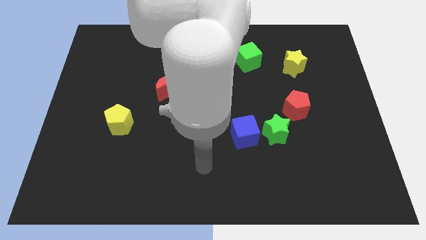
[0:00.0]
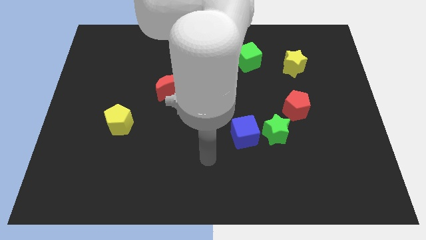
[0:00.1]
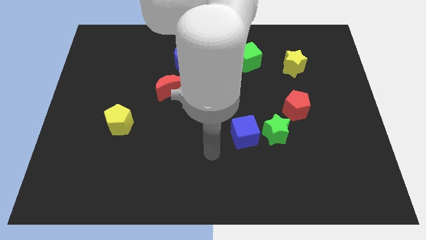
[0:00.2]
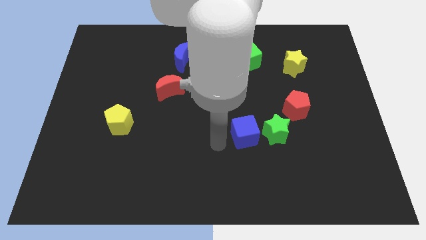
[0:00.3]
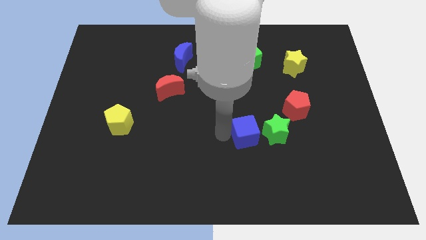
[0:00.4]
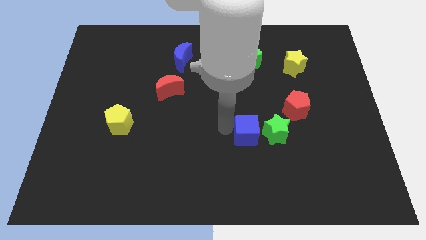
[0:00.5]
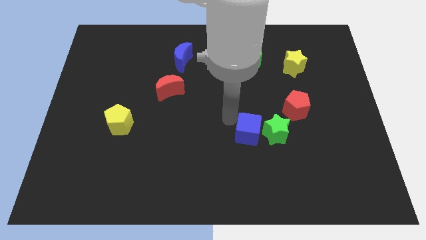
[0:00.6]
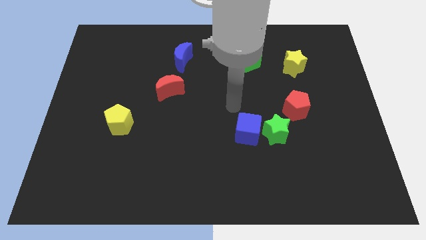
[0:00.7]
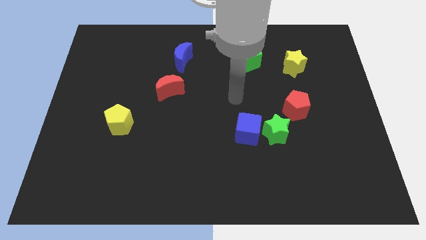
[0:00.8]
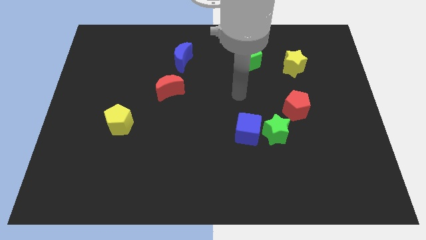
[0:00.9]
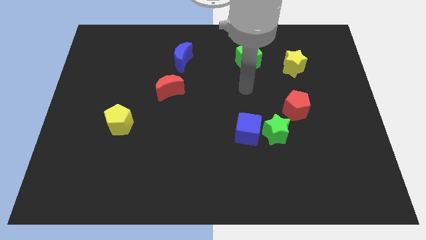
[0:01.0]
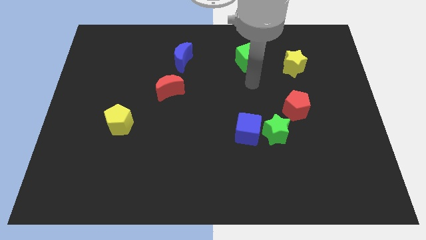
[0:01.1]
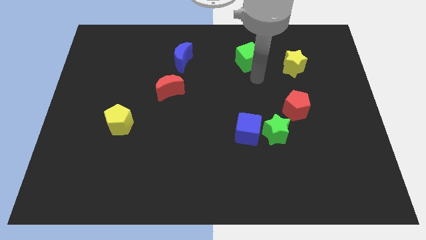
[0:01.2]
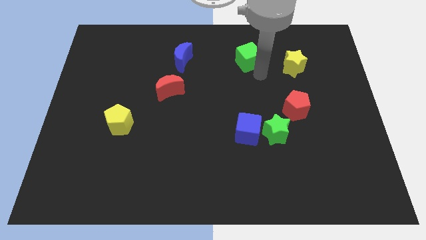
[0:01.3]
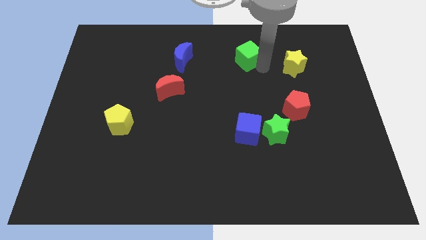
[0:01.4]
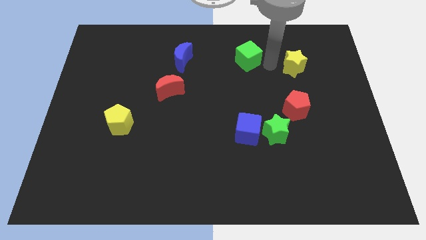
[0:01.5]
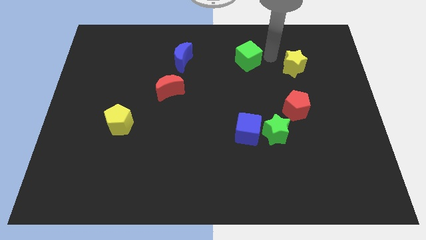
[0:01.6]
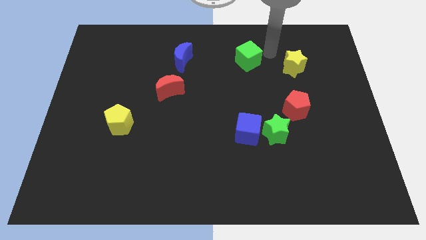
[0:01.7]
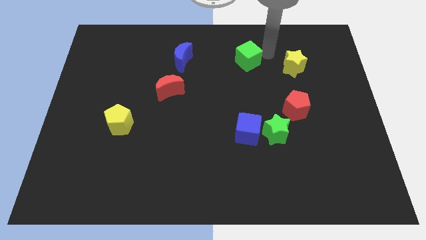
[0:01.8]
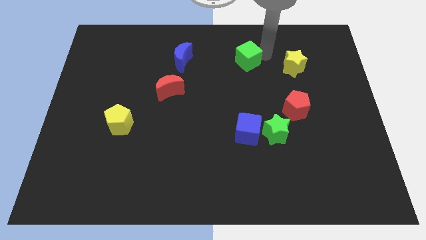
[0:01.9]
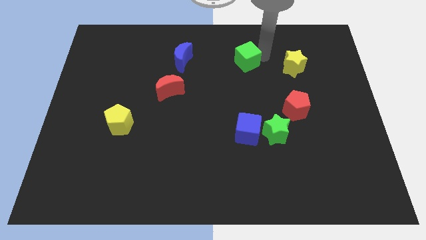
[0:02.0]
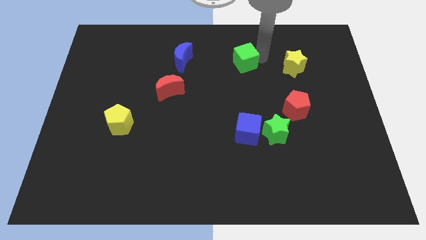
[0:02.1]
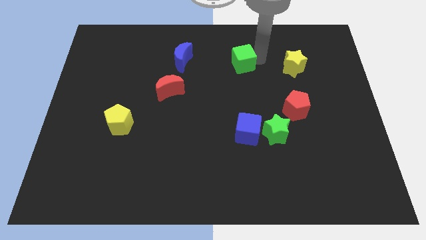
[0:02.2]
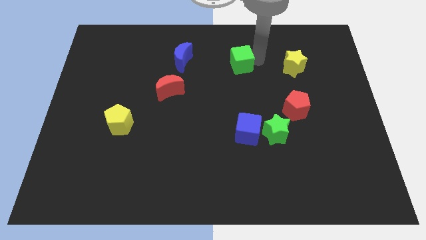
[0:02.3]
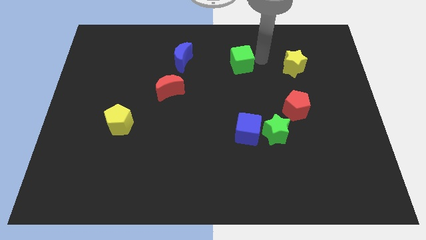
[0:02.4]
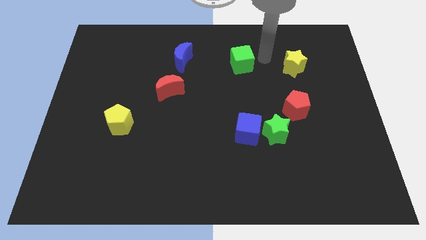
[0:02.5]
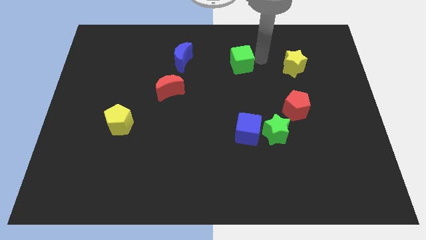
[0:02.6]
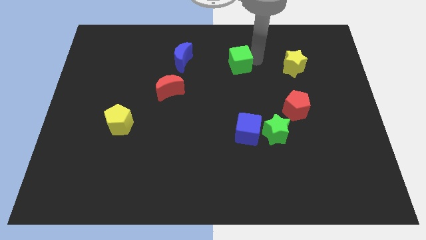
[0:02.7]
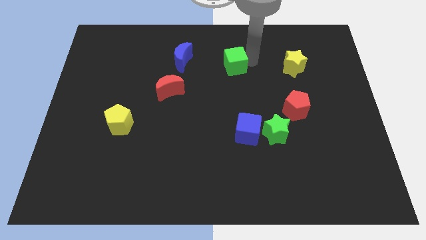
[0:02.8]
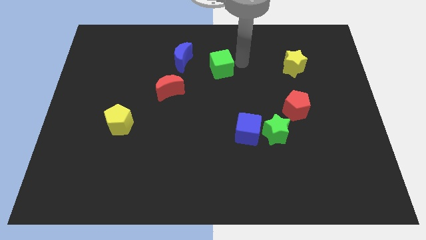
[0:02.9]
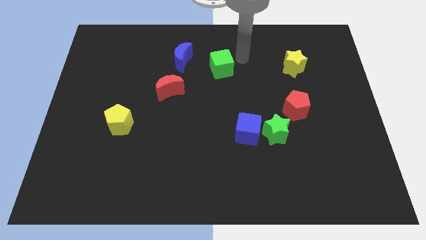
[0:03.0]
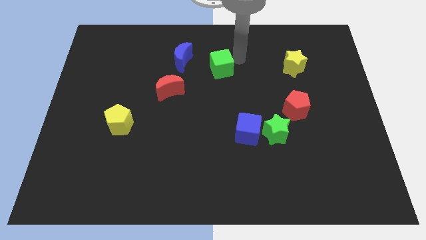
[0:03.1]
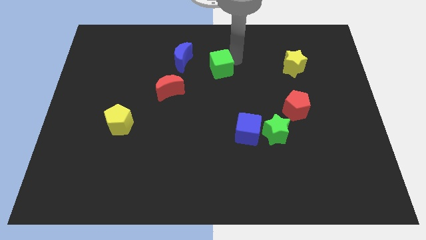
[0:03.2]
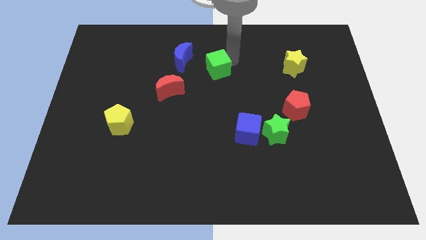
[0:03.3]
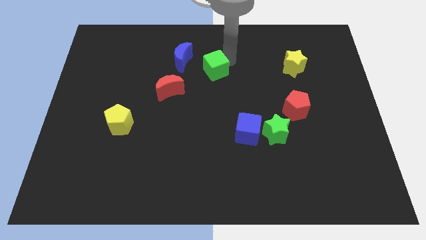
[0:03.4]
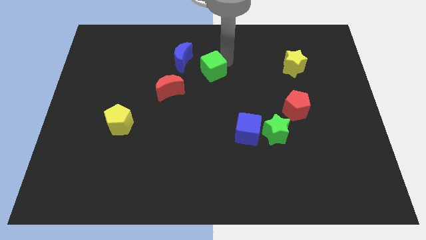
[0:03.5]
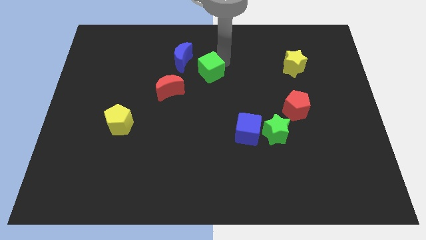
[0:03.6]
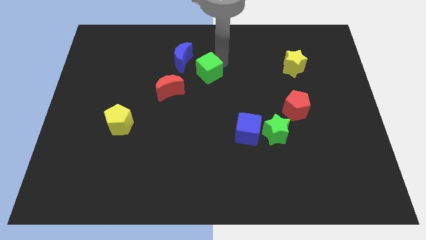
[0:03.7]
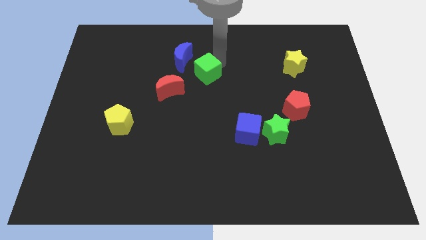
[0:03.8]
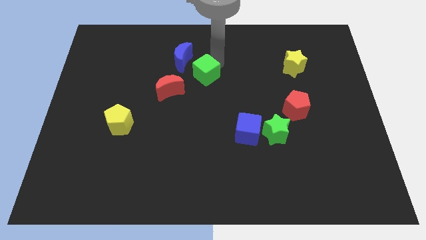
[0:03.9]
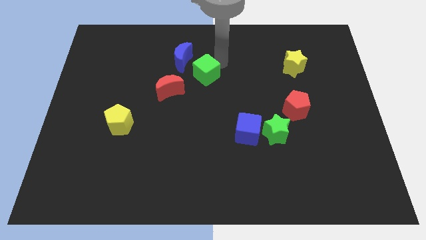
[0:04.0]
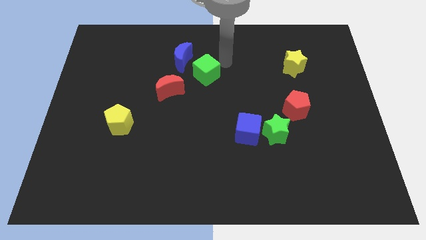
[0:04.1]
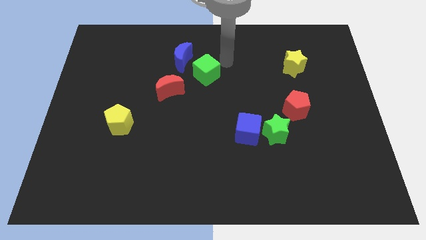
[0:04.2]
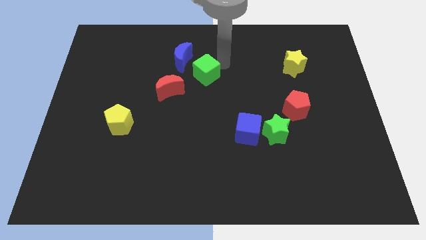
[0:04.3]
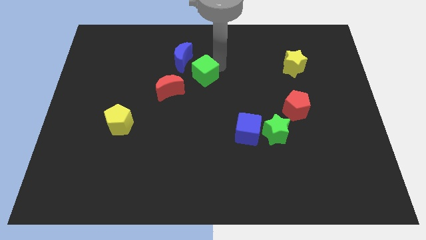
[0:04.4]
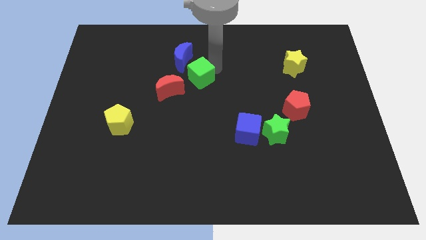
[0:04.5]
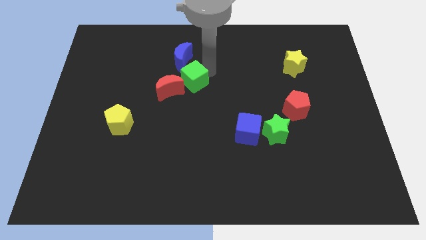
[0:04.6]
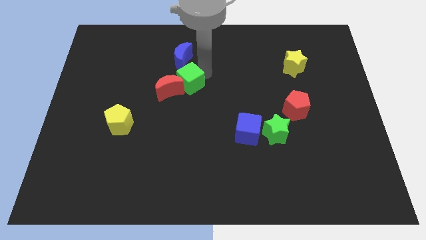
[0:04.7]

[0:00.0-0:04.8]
move the green cube towards the red moon

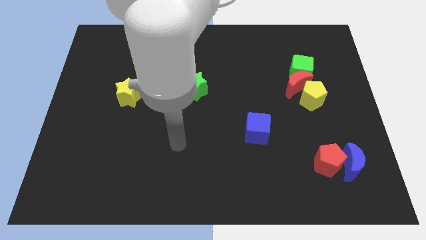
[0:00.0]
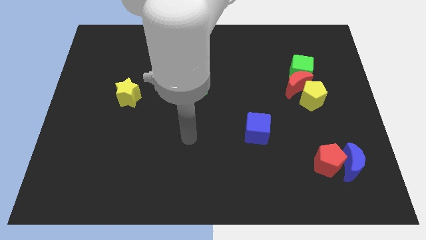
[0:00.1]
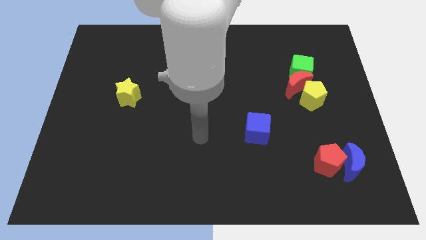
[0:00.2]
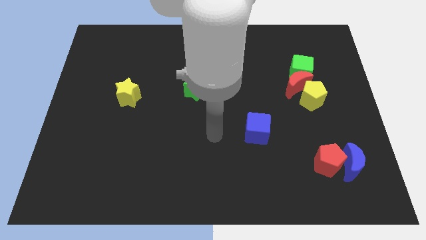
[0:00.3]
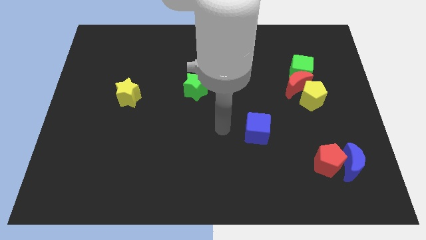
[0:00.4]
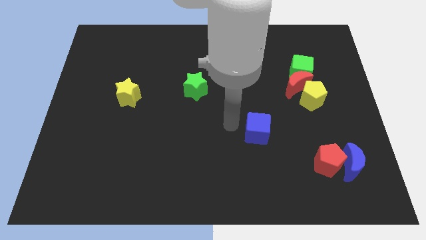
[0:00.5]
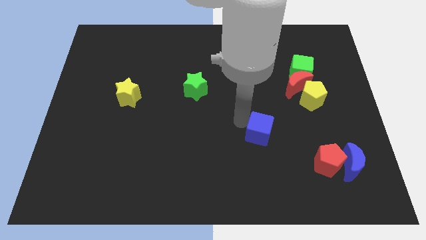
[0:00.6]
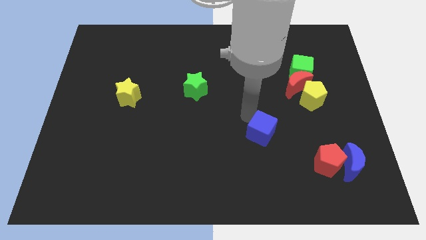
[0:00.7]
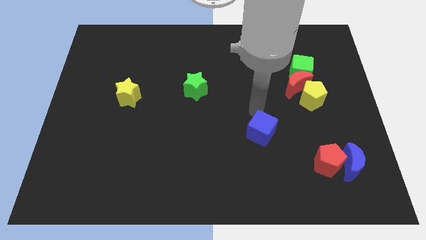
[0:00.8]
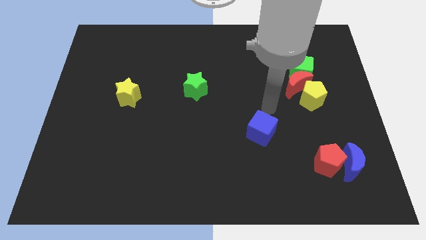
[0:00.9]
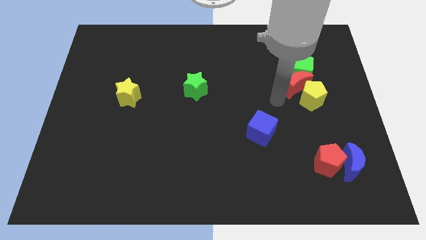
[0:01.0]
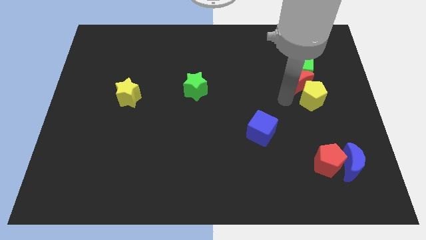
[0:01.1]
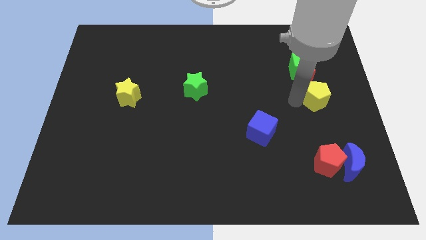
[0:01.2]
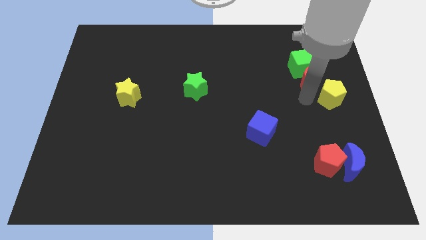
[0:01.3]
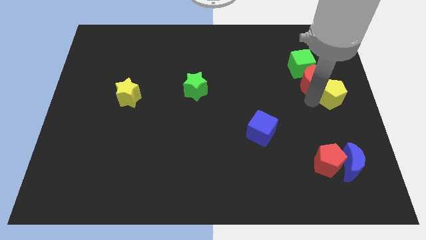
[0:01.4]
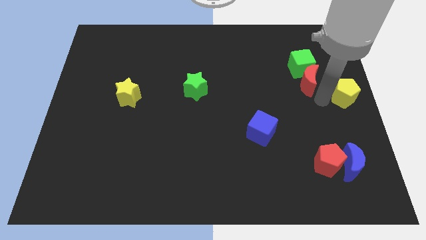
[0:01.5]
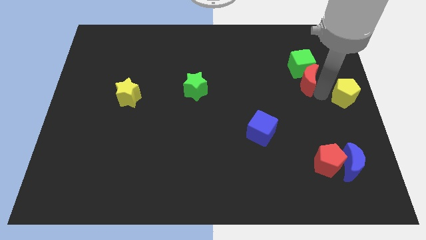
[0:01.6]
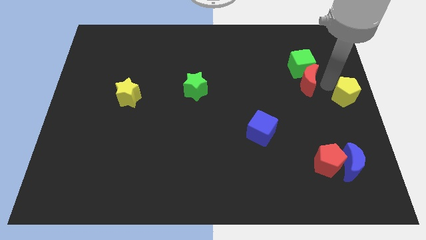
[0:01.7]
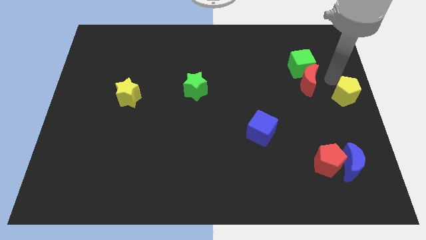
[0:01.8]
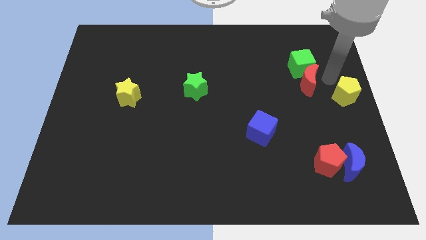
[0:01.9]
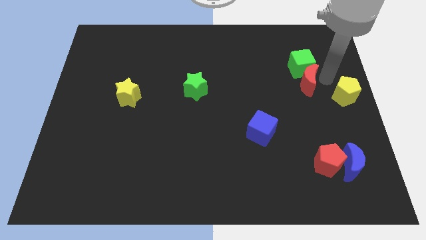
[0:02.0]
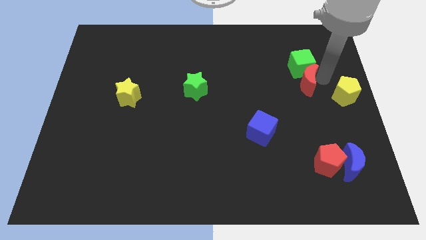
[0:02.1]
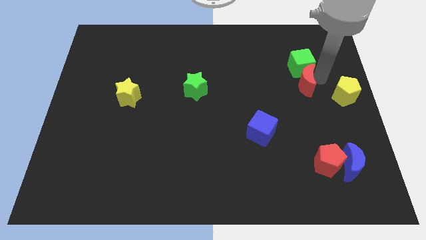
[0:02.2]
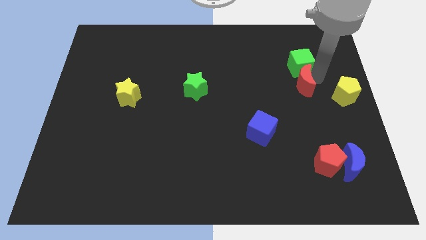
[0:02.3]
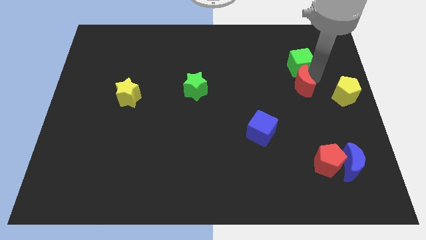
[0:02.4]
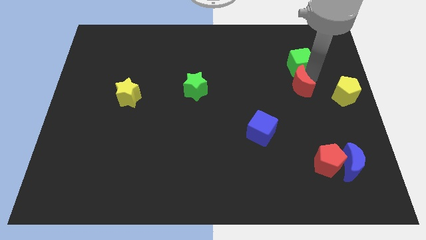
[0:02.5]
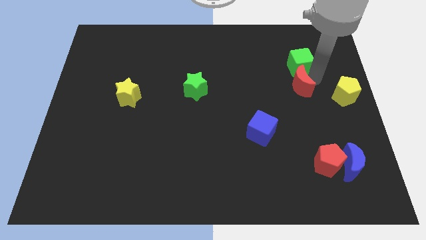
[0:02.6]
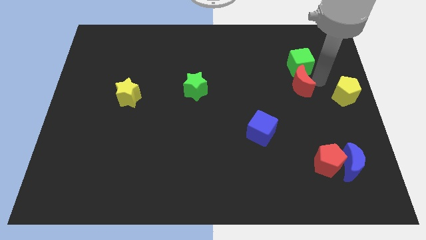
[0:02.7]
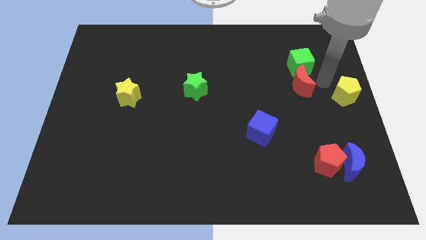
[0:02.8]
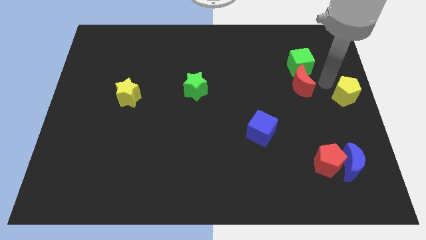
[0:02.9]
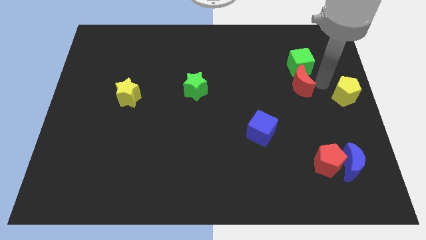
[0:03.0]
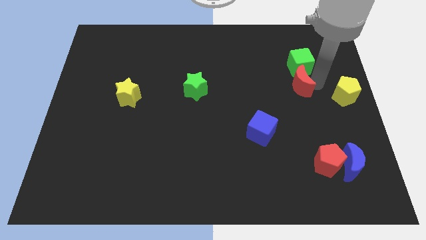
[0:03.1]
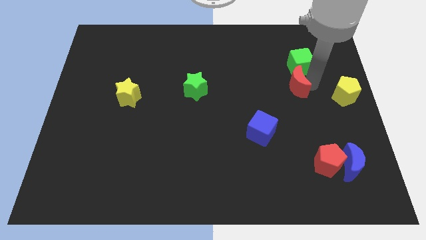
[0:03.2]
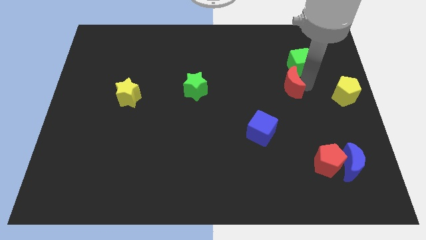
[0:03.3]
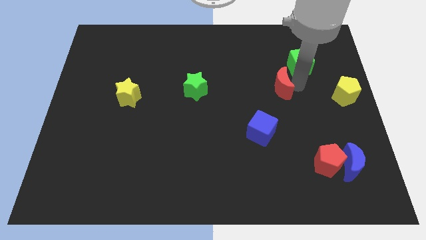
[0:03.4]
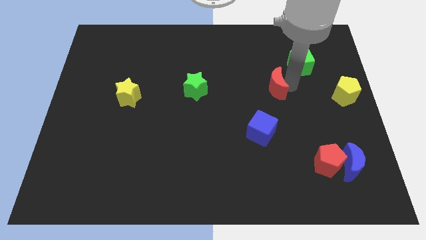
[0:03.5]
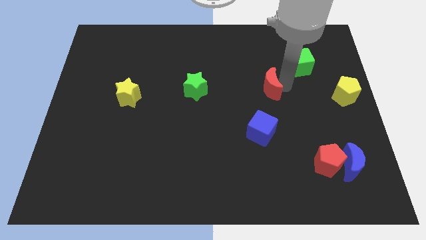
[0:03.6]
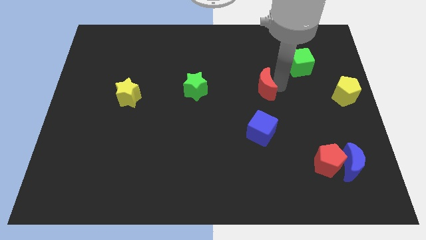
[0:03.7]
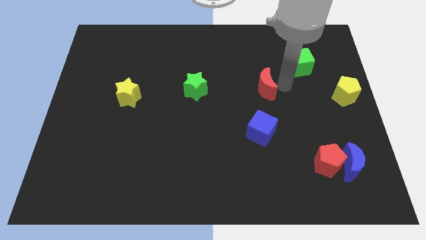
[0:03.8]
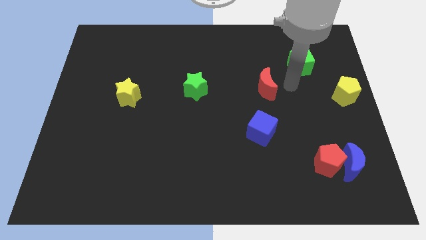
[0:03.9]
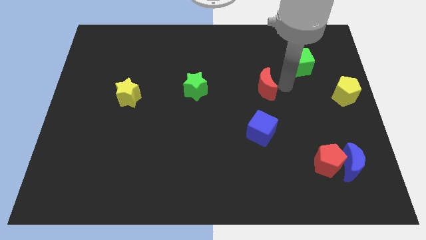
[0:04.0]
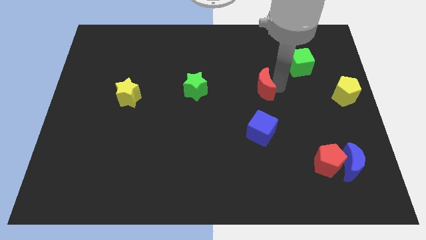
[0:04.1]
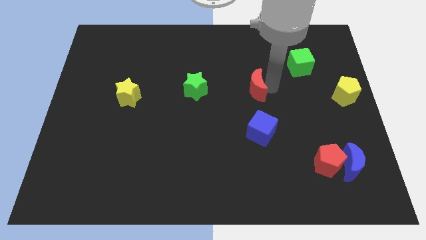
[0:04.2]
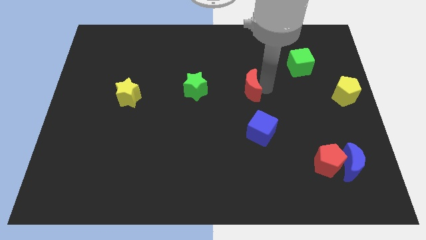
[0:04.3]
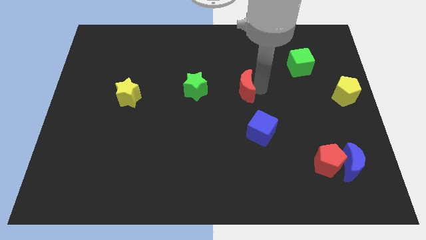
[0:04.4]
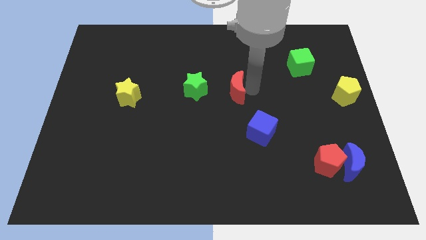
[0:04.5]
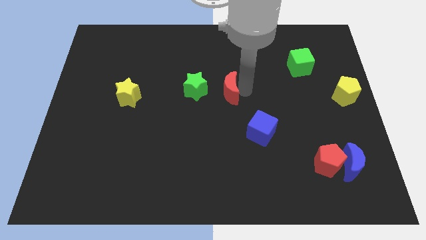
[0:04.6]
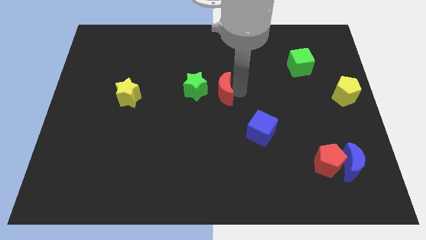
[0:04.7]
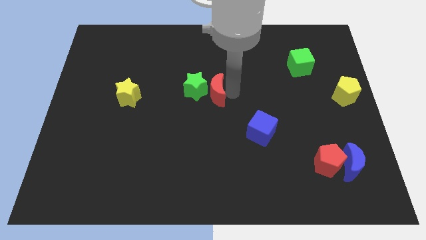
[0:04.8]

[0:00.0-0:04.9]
move the red moon close to the green star
